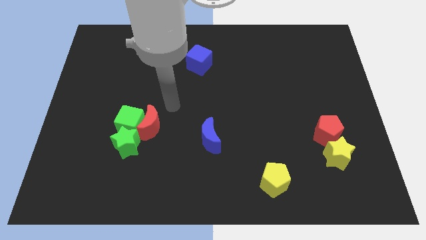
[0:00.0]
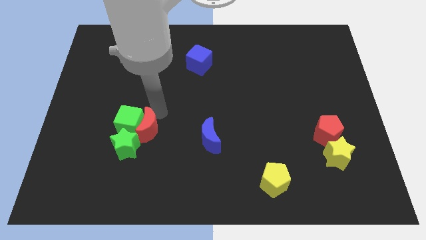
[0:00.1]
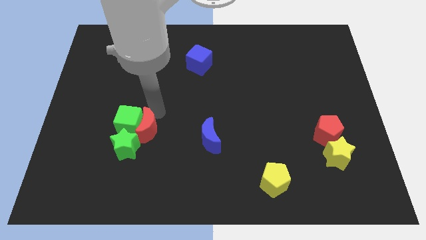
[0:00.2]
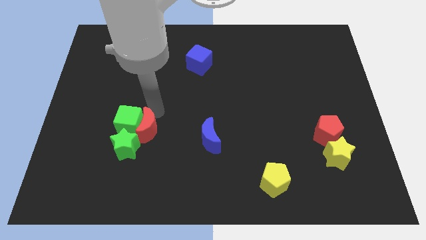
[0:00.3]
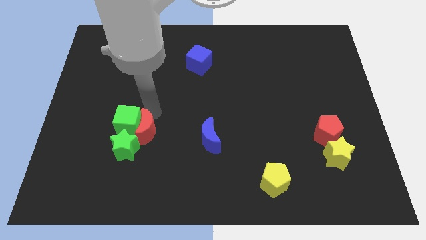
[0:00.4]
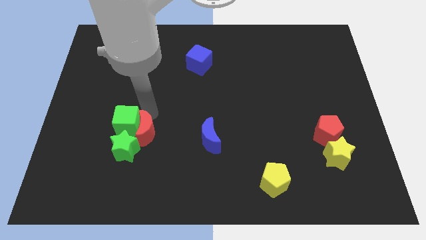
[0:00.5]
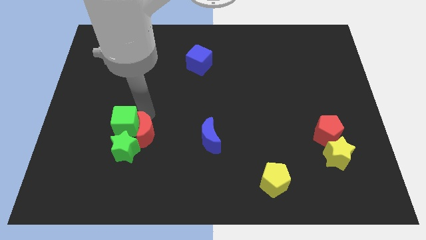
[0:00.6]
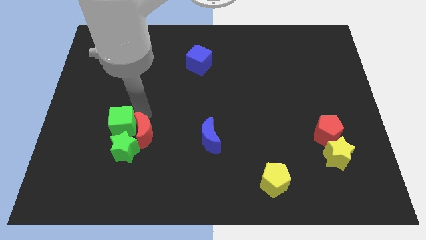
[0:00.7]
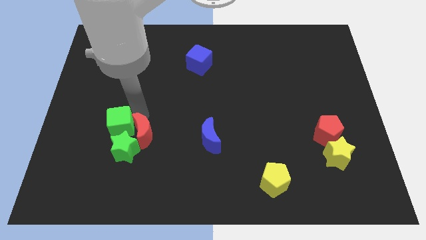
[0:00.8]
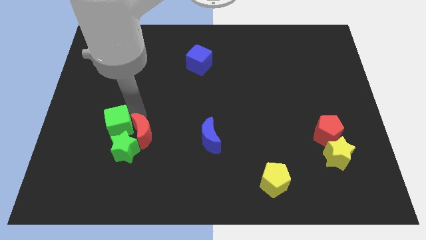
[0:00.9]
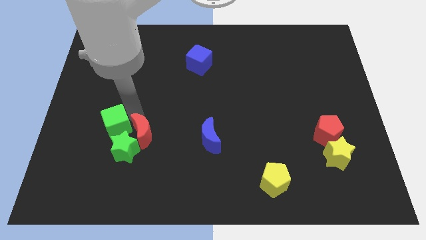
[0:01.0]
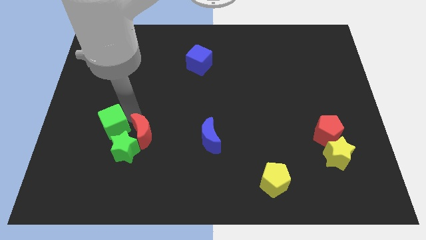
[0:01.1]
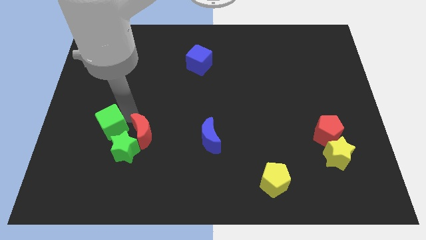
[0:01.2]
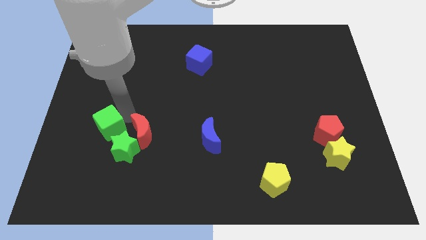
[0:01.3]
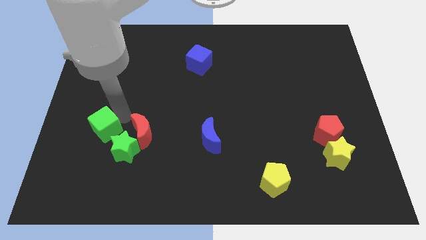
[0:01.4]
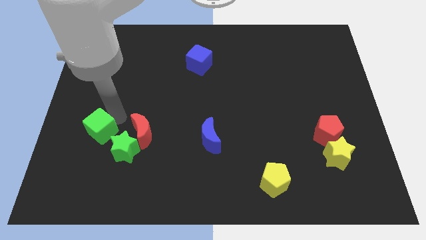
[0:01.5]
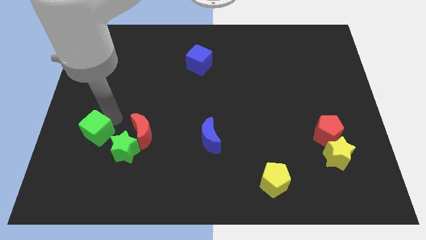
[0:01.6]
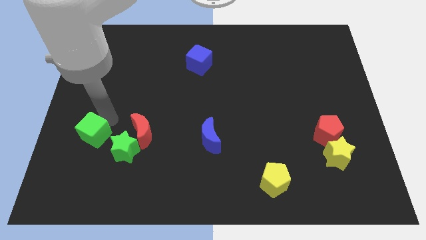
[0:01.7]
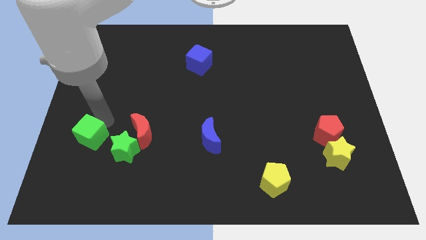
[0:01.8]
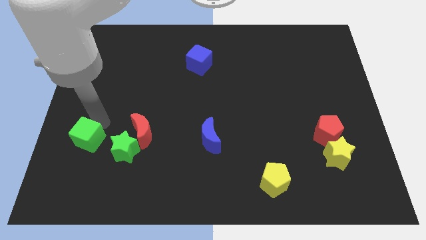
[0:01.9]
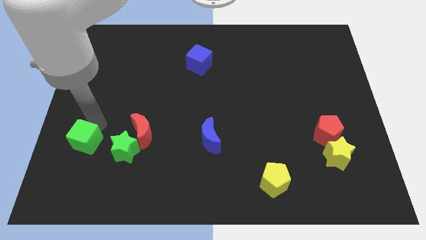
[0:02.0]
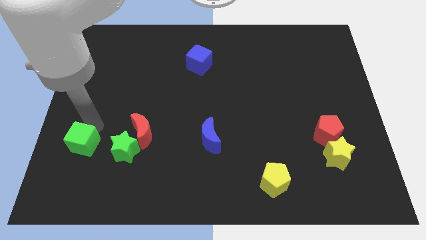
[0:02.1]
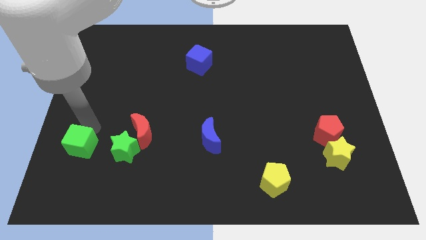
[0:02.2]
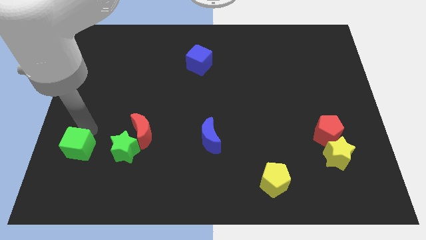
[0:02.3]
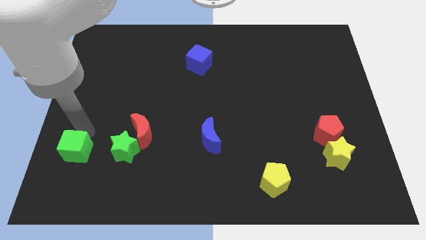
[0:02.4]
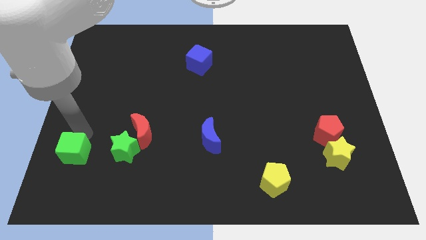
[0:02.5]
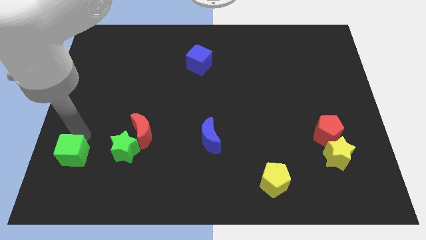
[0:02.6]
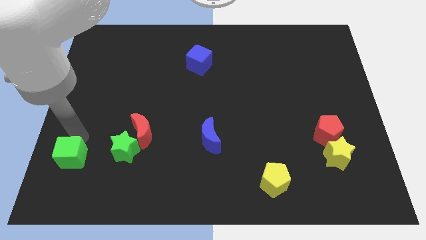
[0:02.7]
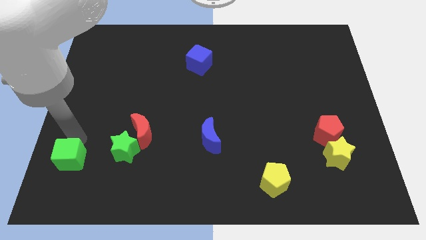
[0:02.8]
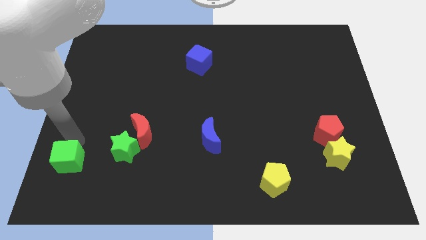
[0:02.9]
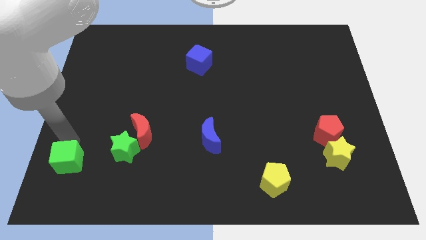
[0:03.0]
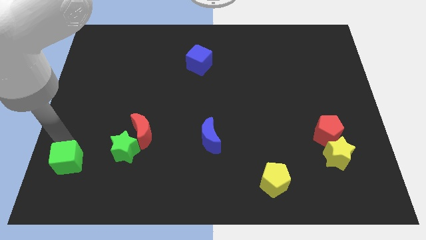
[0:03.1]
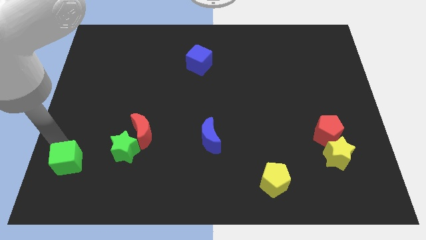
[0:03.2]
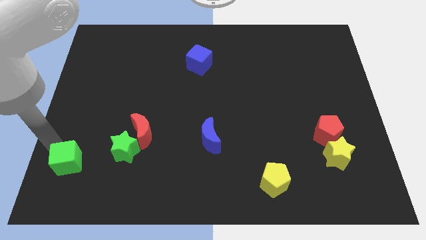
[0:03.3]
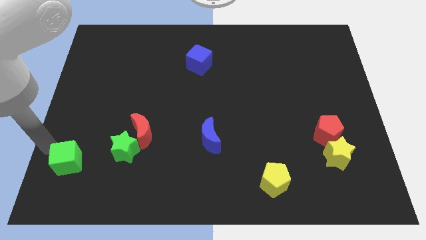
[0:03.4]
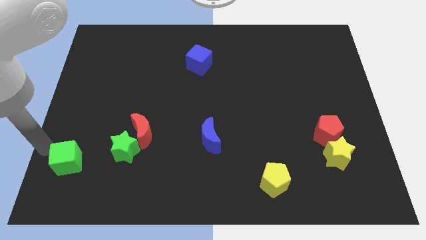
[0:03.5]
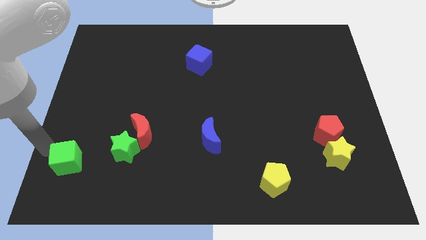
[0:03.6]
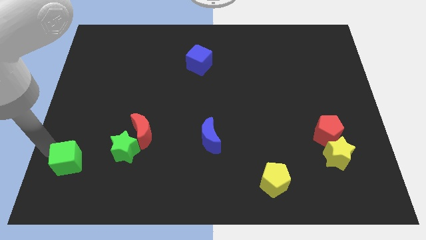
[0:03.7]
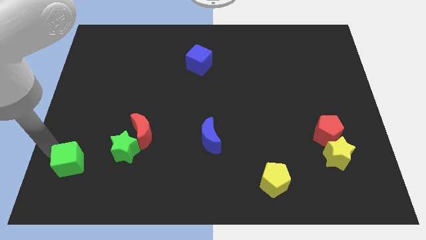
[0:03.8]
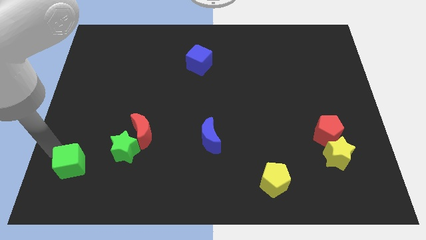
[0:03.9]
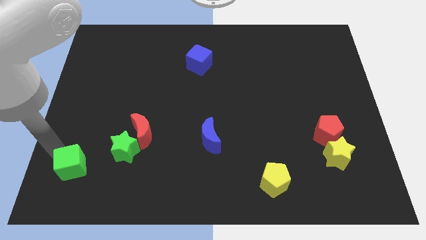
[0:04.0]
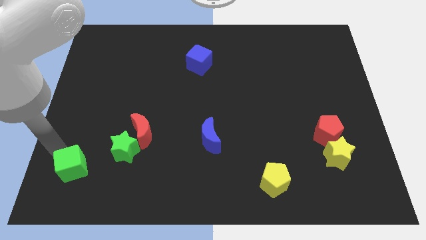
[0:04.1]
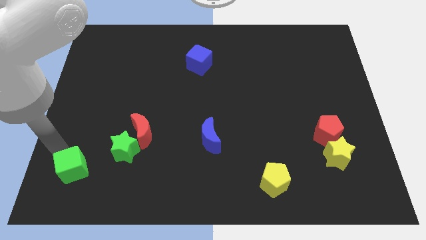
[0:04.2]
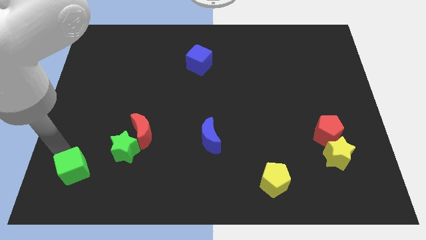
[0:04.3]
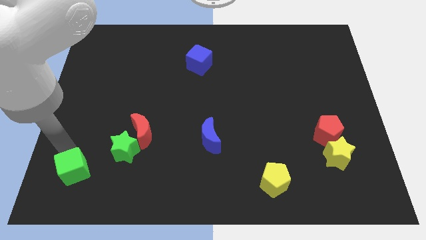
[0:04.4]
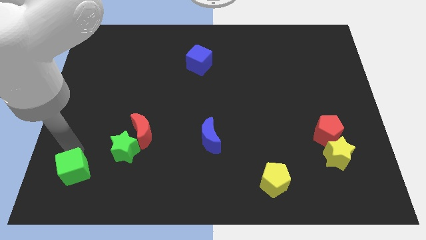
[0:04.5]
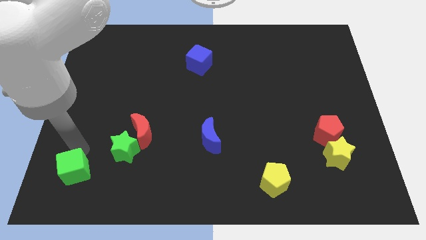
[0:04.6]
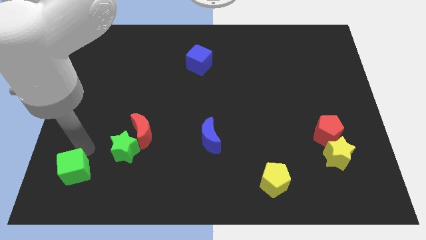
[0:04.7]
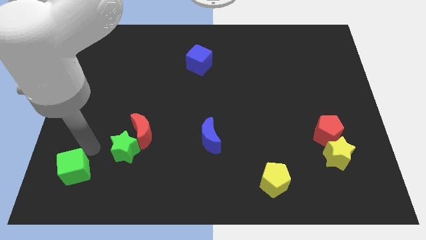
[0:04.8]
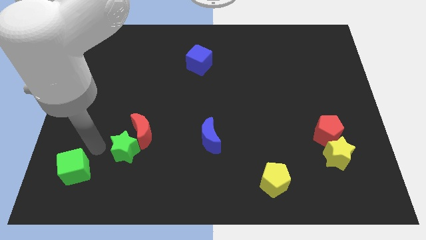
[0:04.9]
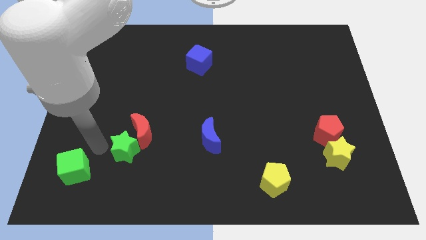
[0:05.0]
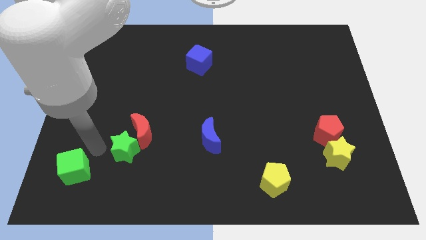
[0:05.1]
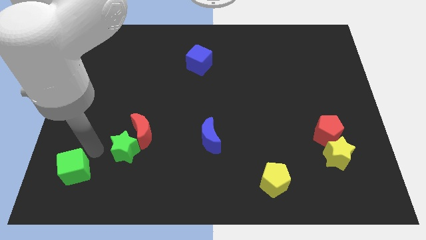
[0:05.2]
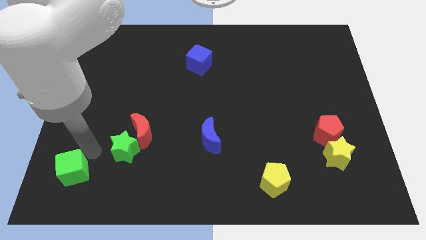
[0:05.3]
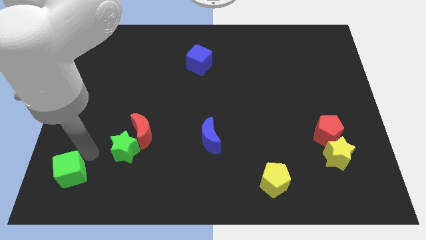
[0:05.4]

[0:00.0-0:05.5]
move the green cube to the bottom left

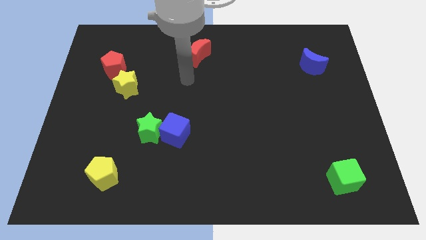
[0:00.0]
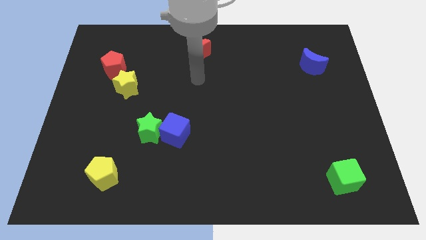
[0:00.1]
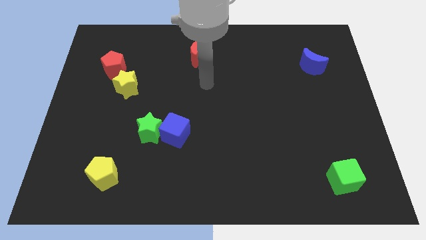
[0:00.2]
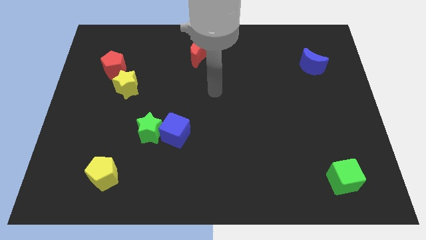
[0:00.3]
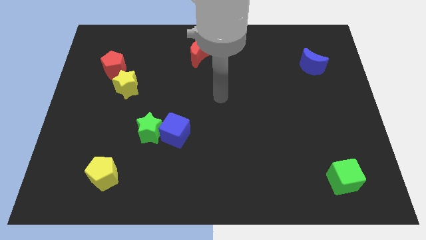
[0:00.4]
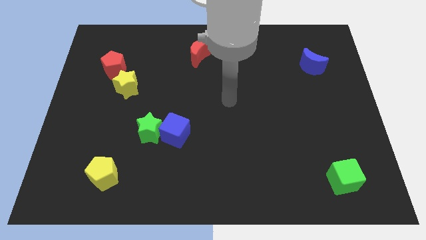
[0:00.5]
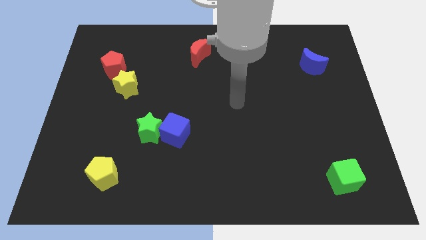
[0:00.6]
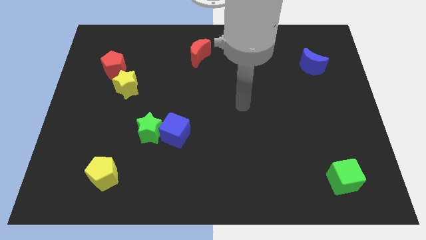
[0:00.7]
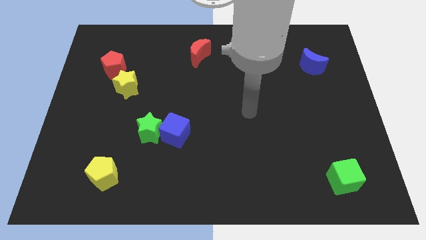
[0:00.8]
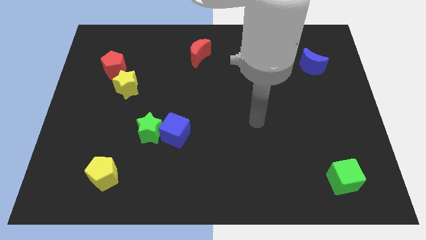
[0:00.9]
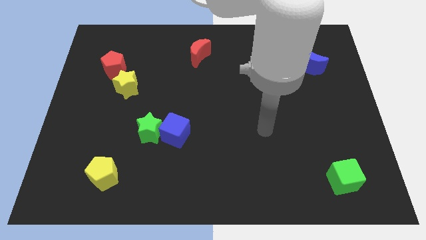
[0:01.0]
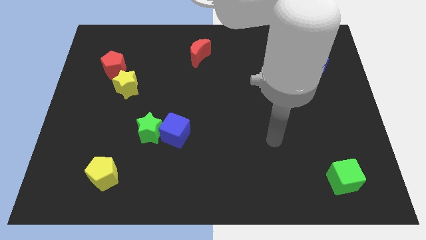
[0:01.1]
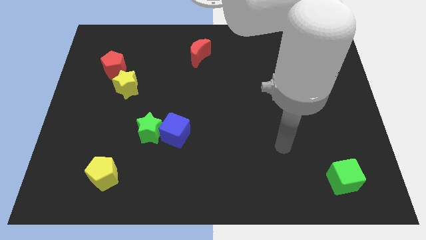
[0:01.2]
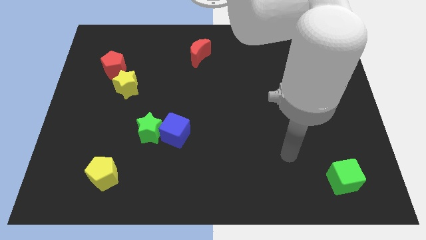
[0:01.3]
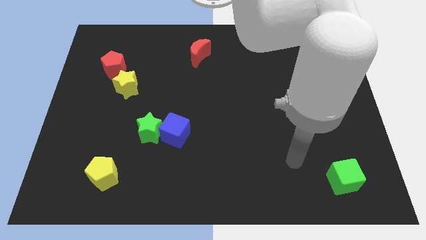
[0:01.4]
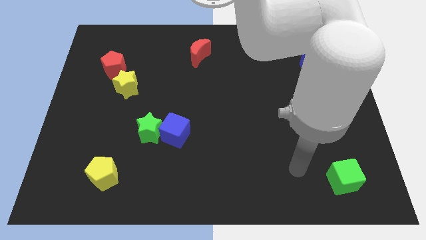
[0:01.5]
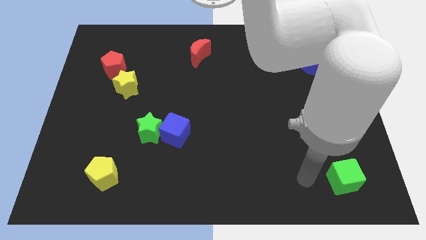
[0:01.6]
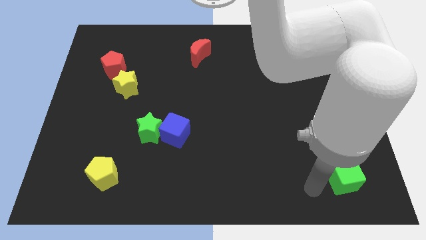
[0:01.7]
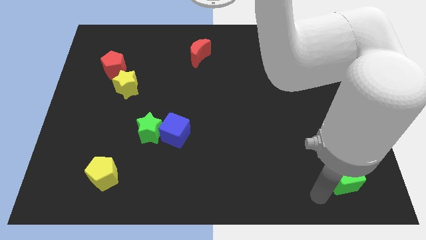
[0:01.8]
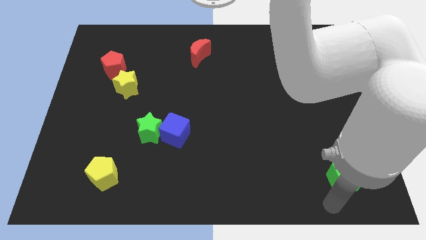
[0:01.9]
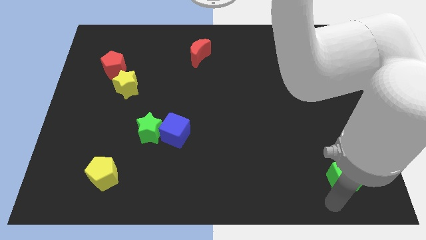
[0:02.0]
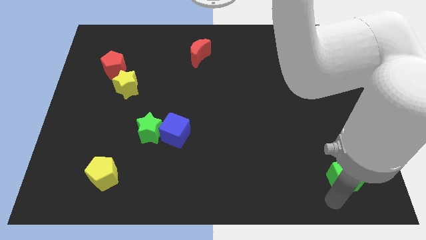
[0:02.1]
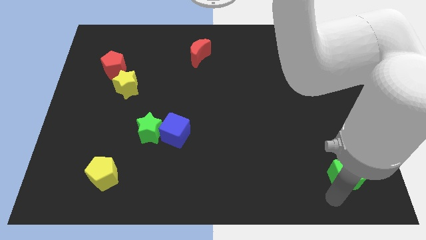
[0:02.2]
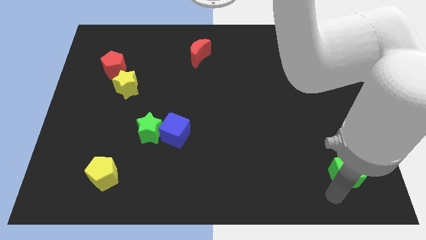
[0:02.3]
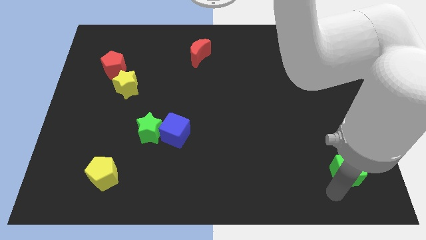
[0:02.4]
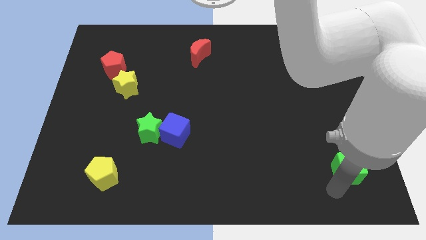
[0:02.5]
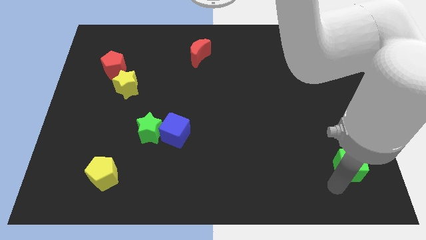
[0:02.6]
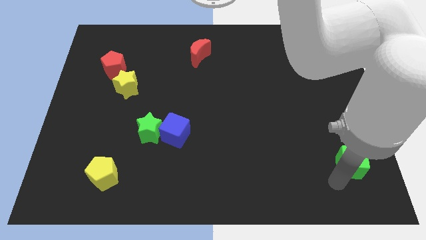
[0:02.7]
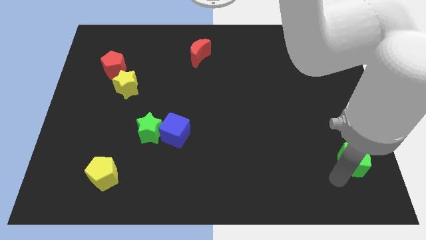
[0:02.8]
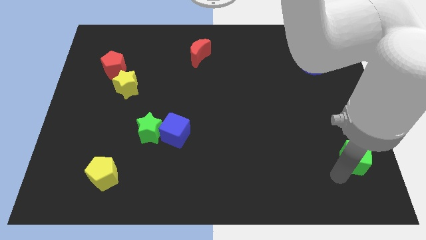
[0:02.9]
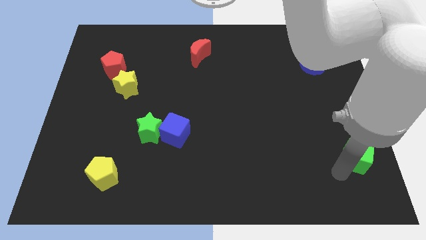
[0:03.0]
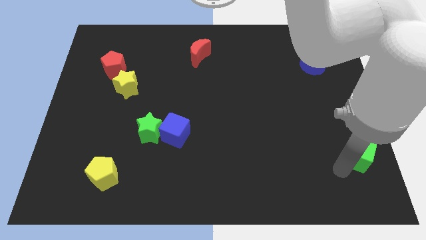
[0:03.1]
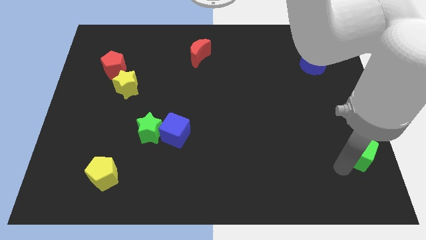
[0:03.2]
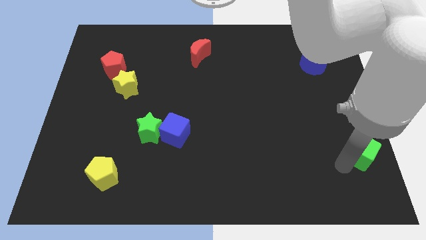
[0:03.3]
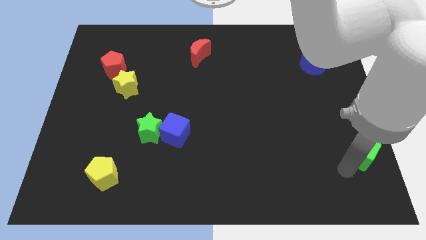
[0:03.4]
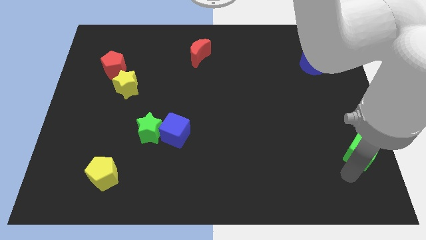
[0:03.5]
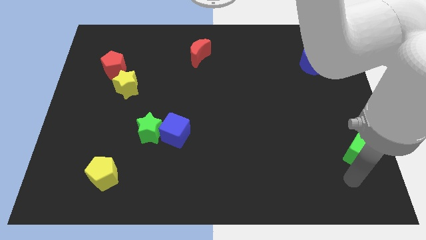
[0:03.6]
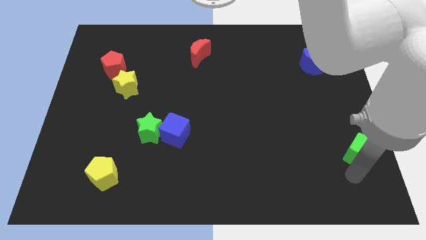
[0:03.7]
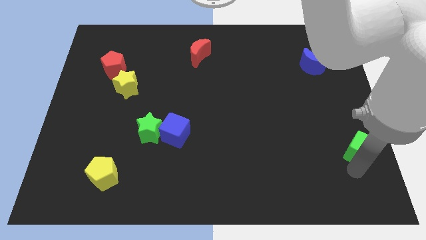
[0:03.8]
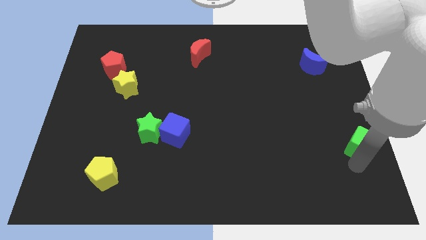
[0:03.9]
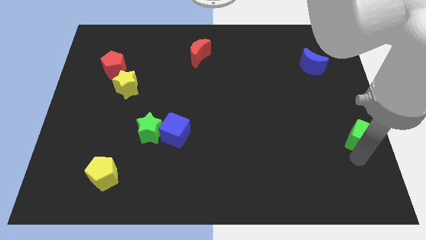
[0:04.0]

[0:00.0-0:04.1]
put the green cube to the center right
